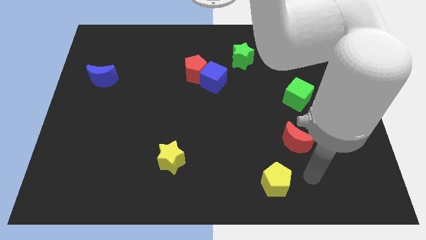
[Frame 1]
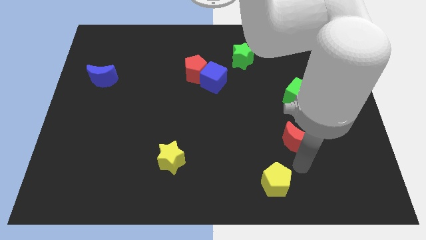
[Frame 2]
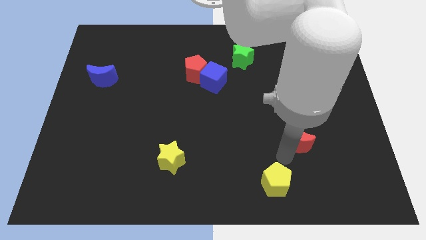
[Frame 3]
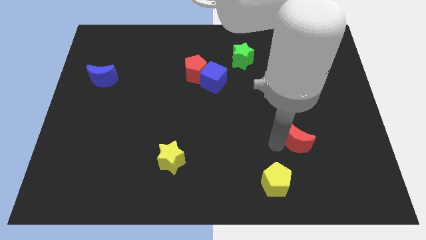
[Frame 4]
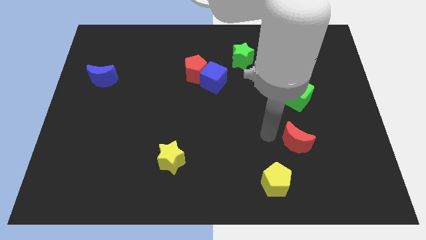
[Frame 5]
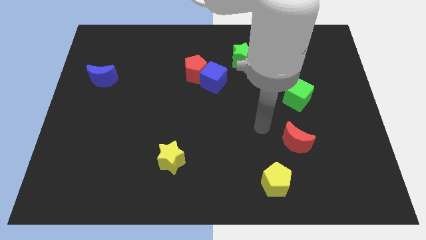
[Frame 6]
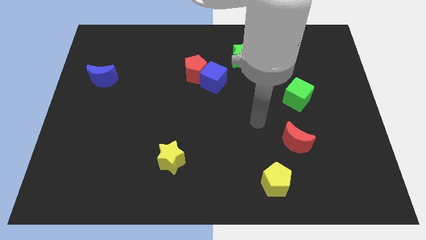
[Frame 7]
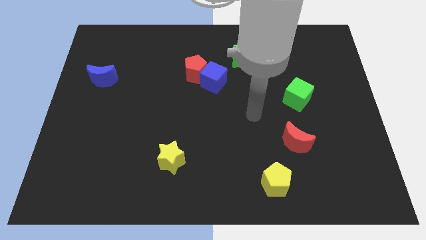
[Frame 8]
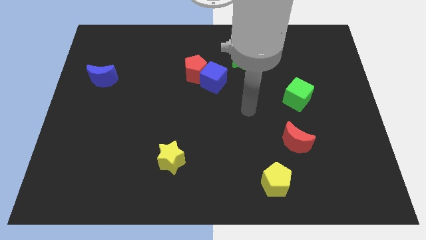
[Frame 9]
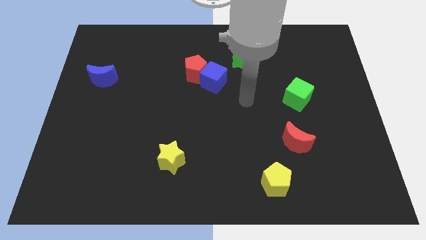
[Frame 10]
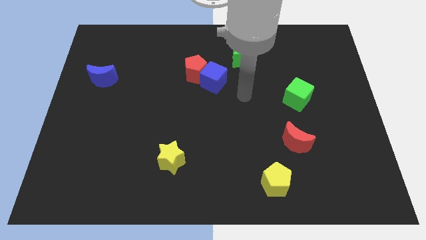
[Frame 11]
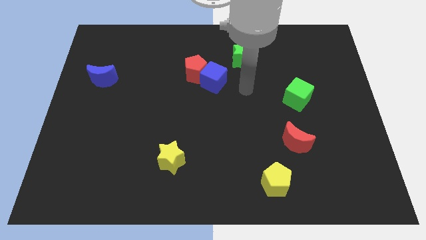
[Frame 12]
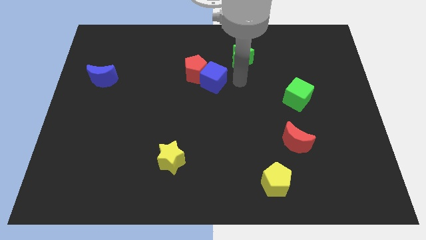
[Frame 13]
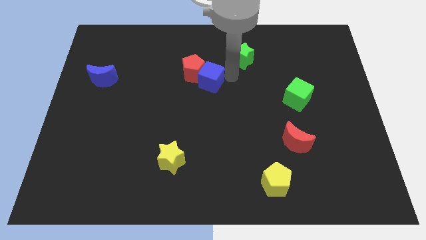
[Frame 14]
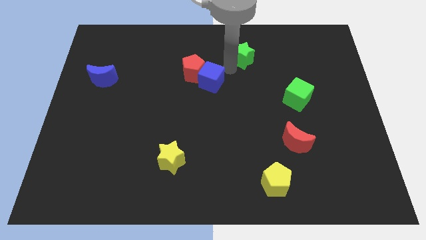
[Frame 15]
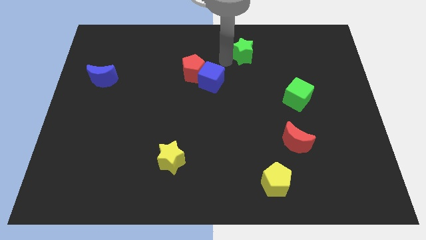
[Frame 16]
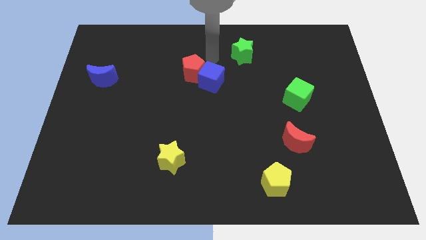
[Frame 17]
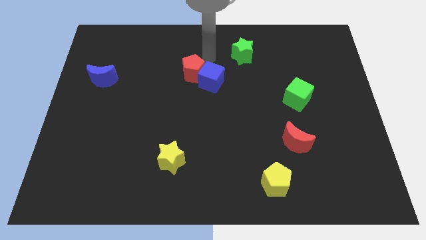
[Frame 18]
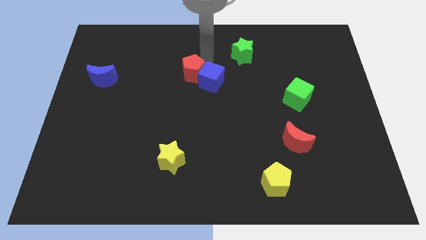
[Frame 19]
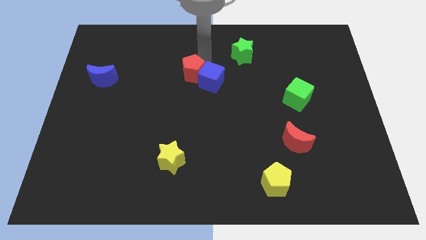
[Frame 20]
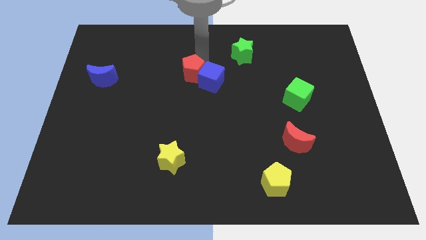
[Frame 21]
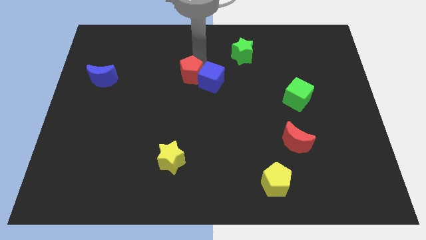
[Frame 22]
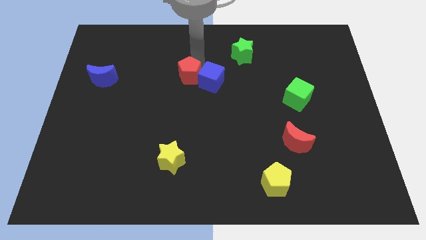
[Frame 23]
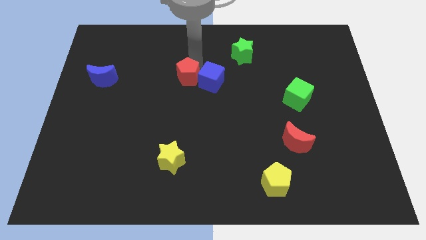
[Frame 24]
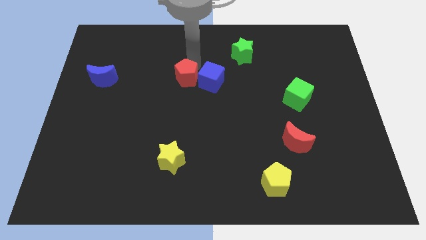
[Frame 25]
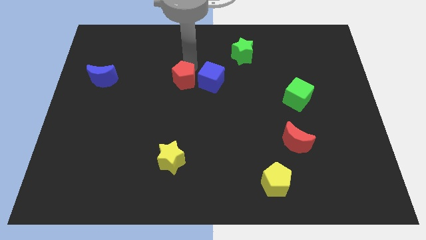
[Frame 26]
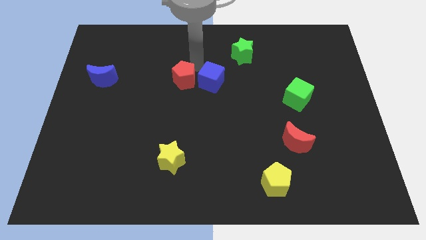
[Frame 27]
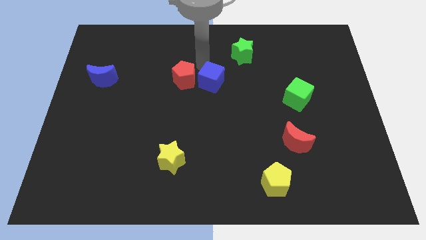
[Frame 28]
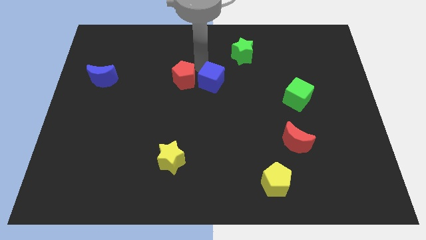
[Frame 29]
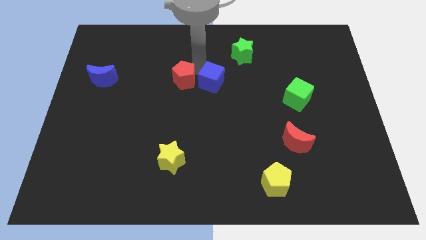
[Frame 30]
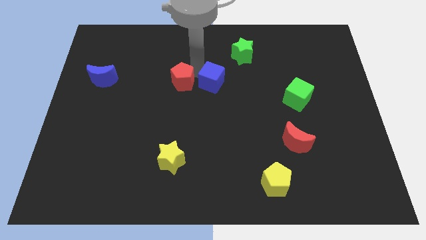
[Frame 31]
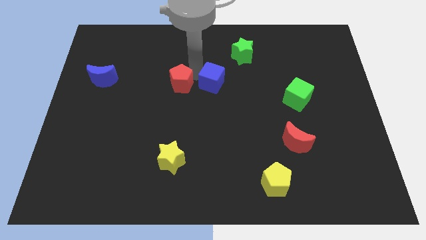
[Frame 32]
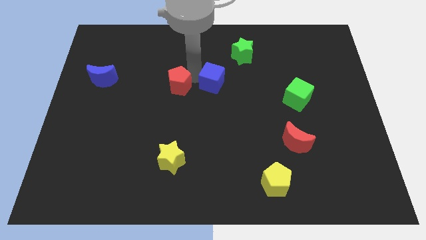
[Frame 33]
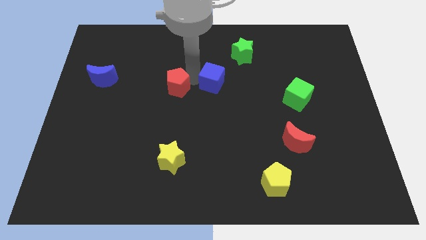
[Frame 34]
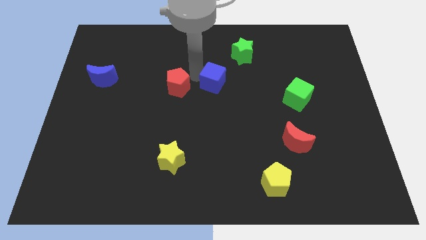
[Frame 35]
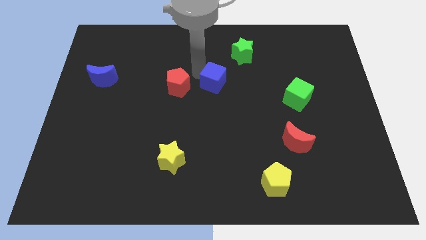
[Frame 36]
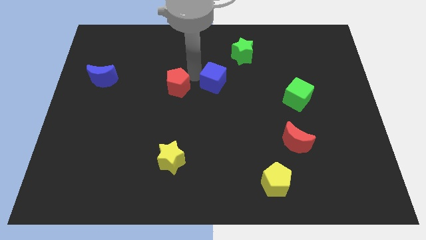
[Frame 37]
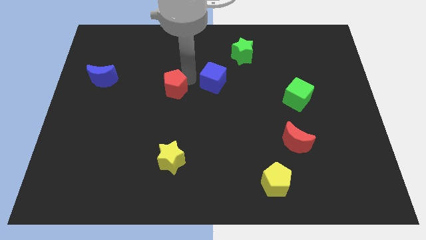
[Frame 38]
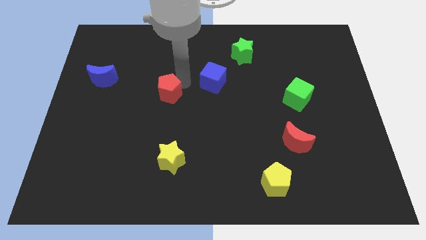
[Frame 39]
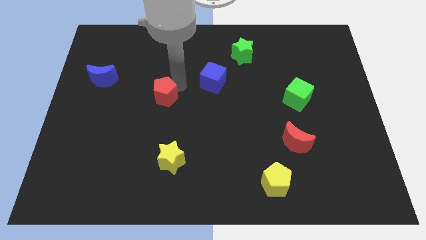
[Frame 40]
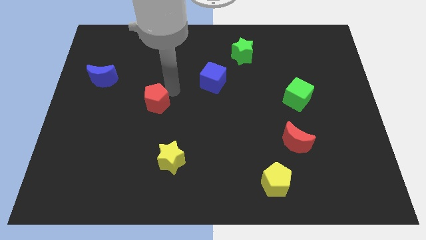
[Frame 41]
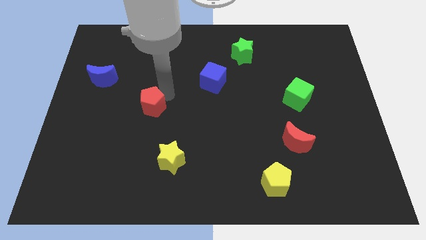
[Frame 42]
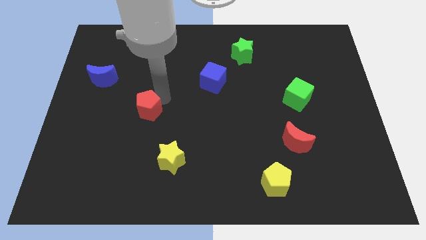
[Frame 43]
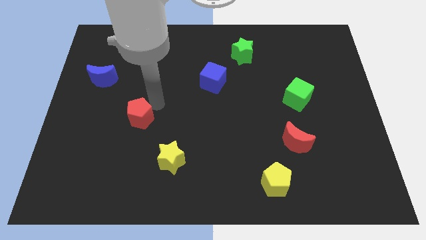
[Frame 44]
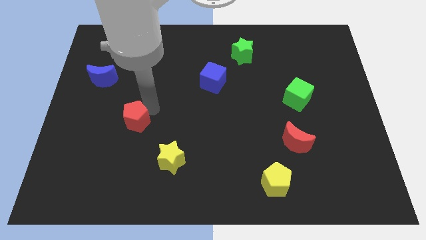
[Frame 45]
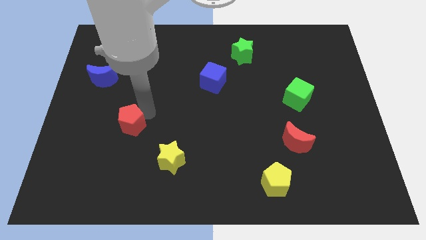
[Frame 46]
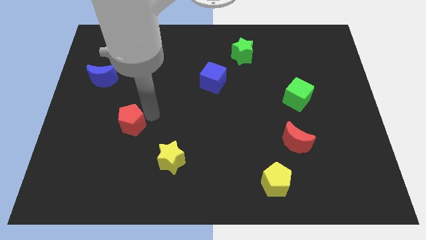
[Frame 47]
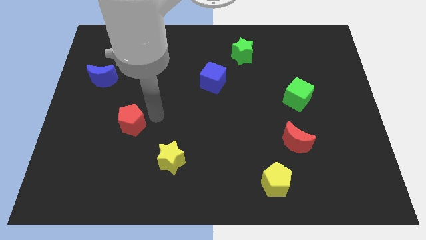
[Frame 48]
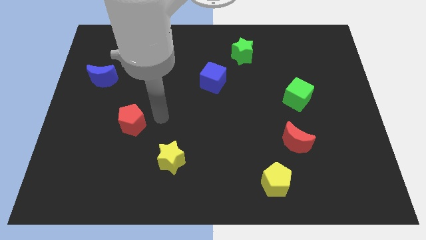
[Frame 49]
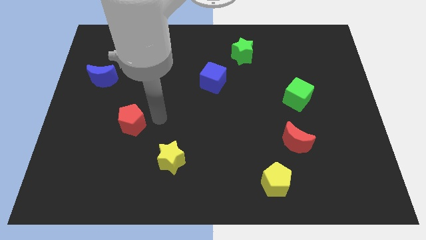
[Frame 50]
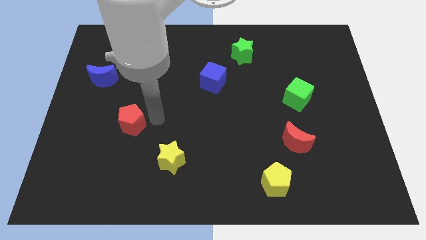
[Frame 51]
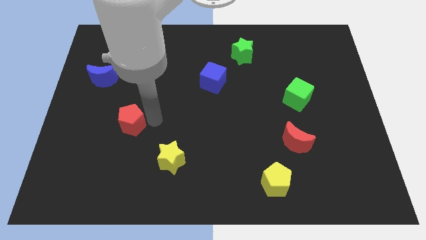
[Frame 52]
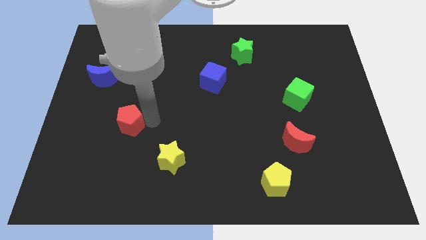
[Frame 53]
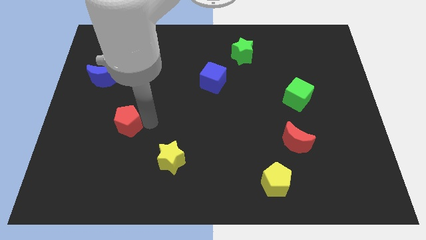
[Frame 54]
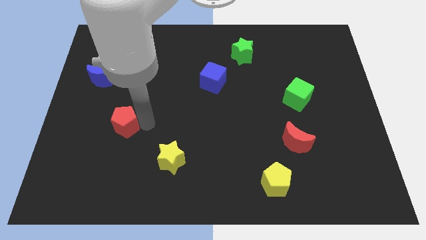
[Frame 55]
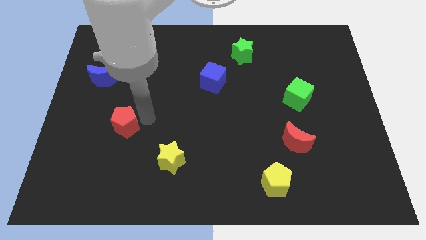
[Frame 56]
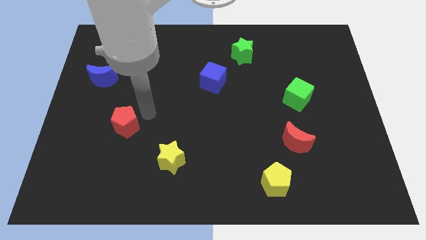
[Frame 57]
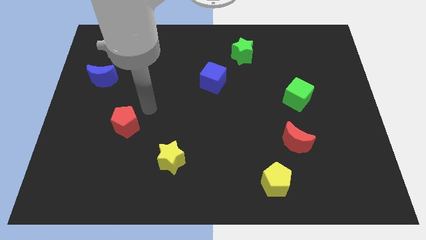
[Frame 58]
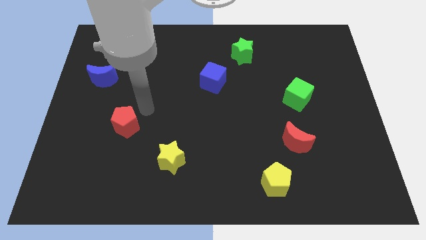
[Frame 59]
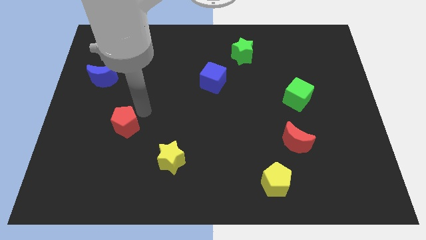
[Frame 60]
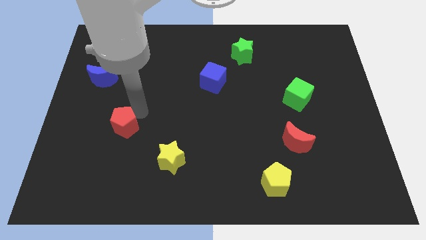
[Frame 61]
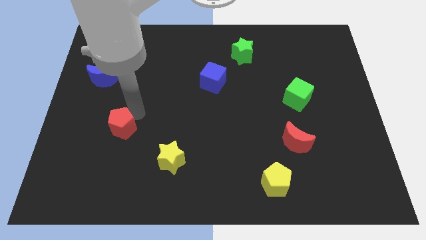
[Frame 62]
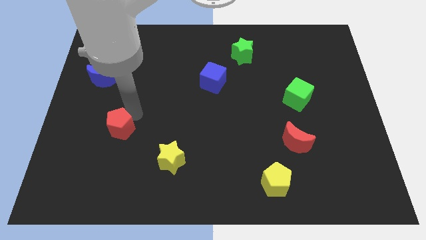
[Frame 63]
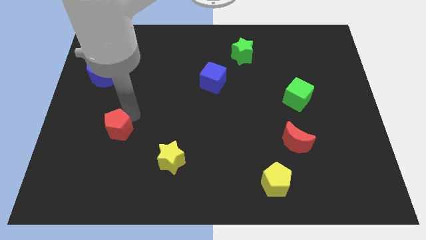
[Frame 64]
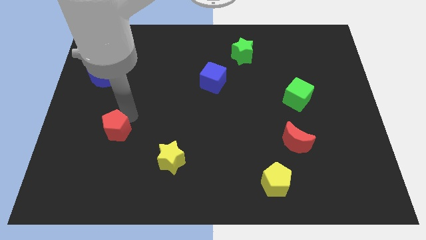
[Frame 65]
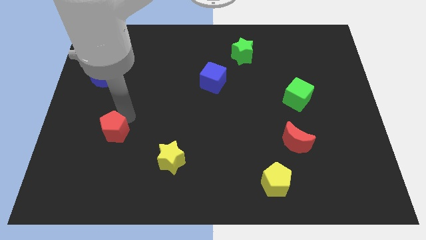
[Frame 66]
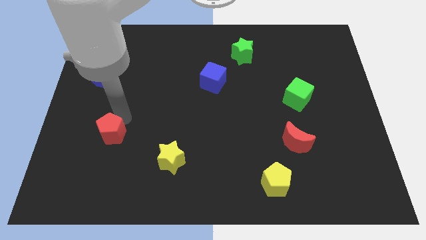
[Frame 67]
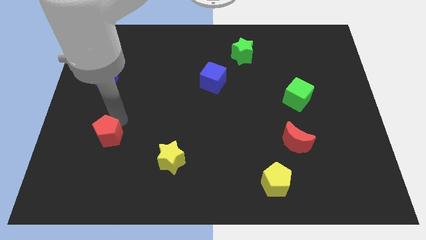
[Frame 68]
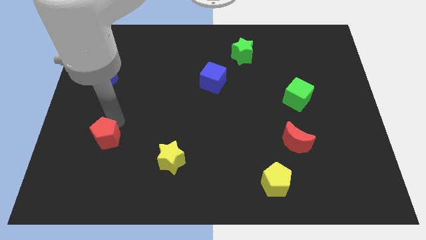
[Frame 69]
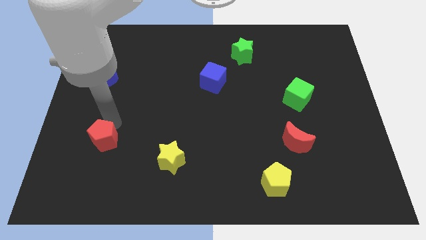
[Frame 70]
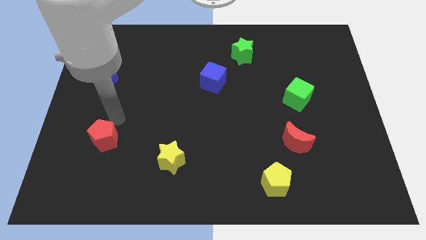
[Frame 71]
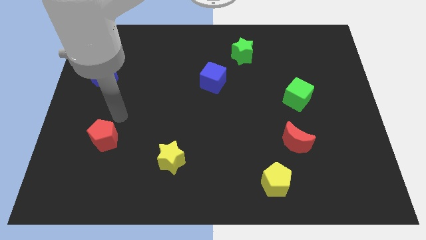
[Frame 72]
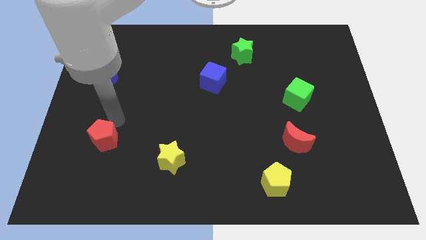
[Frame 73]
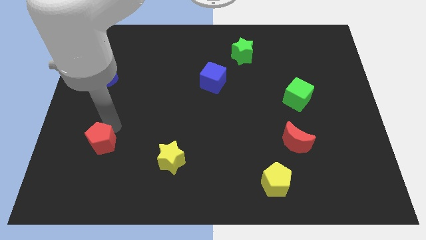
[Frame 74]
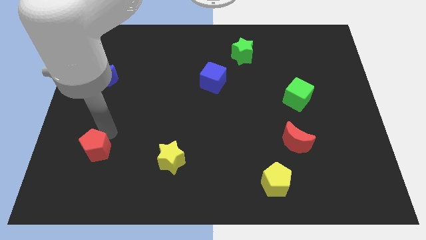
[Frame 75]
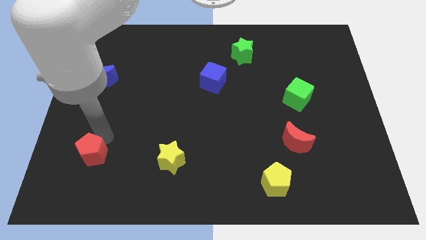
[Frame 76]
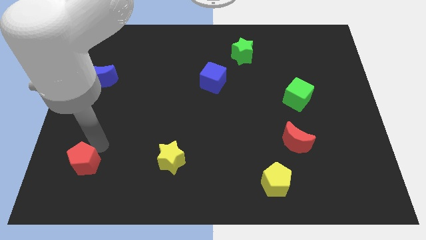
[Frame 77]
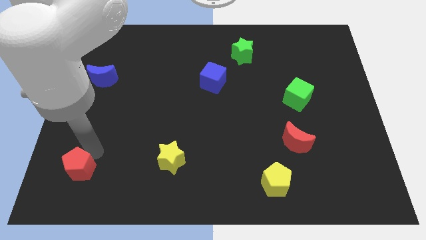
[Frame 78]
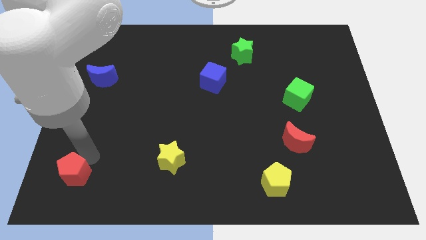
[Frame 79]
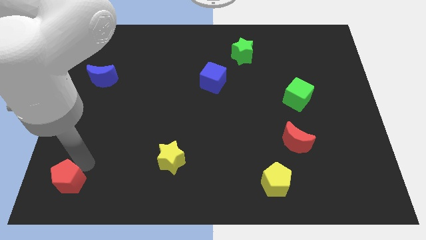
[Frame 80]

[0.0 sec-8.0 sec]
push the red pentagon to the bottom left of the board
